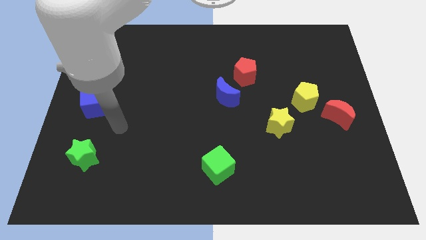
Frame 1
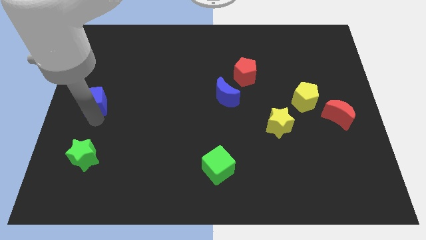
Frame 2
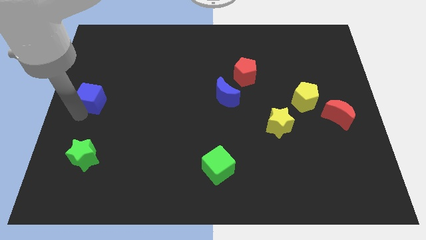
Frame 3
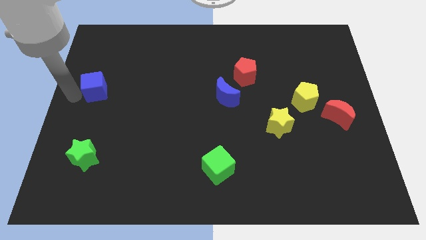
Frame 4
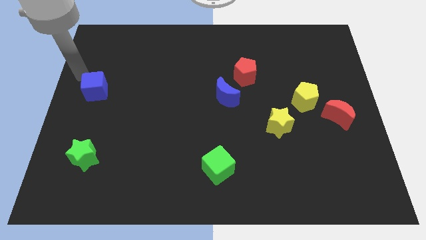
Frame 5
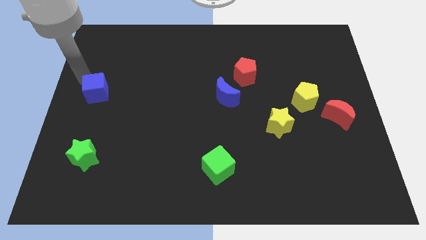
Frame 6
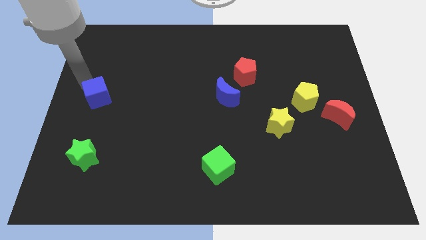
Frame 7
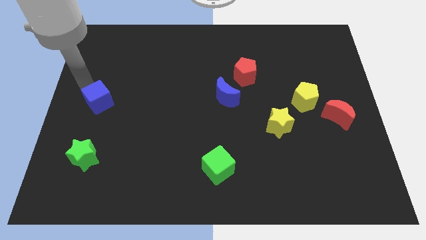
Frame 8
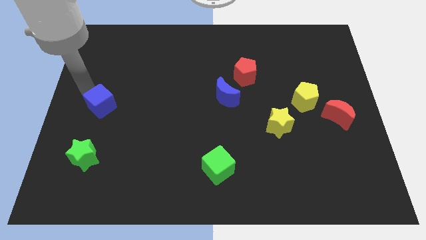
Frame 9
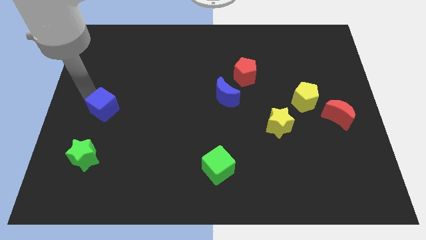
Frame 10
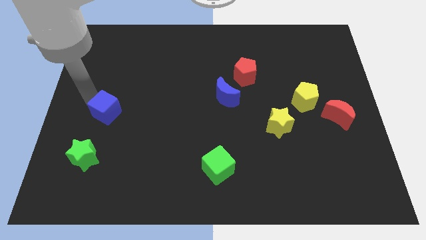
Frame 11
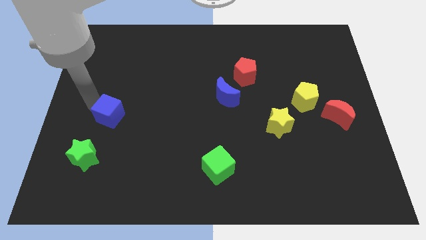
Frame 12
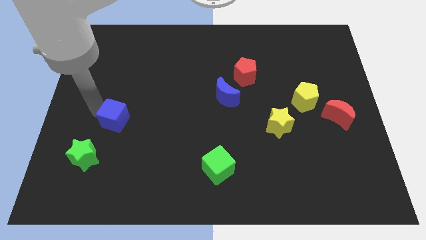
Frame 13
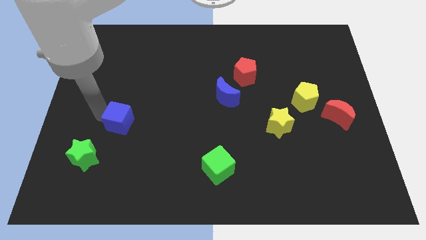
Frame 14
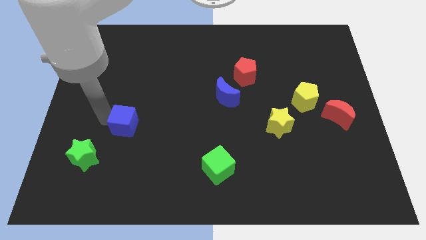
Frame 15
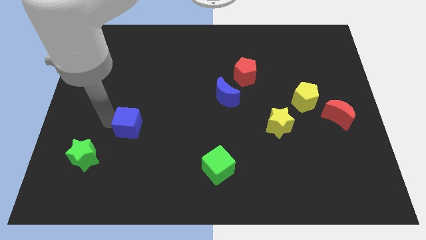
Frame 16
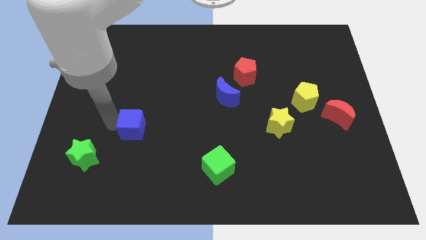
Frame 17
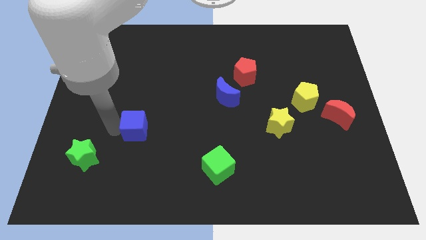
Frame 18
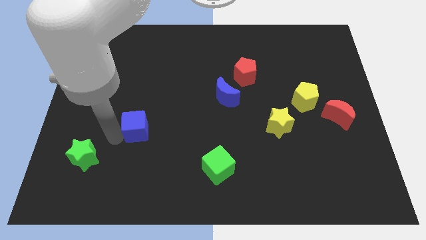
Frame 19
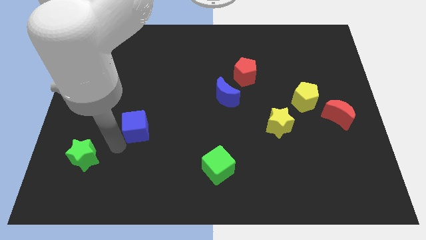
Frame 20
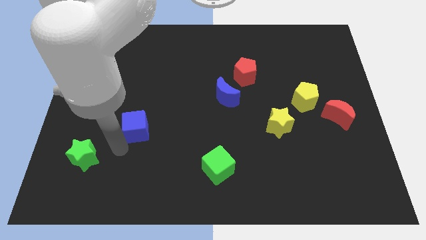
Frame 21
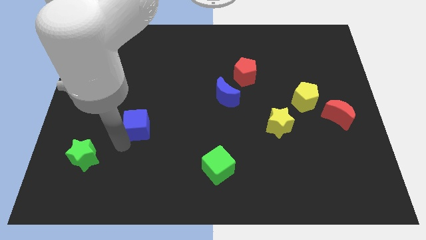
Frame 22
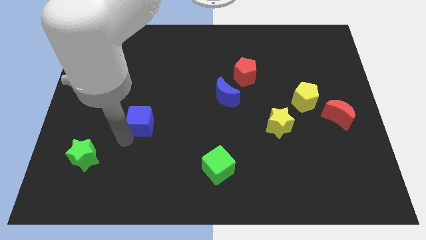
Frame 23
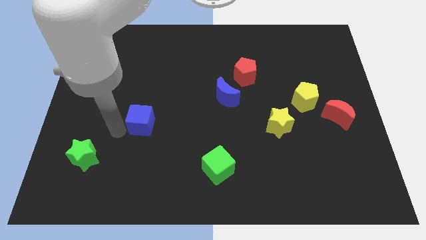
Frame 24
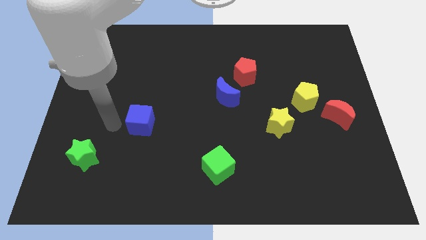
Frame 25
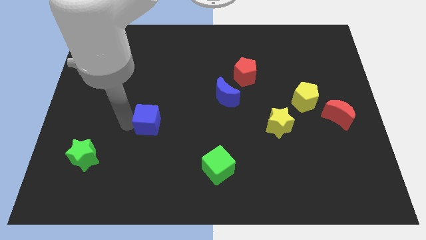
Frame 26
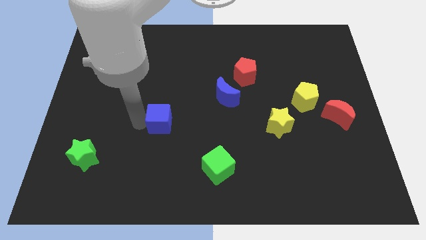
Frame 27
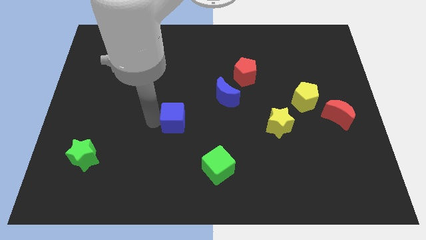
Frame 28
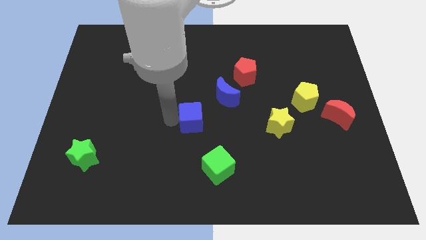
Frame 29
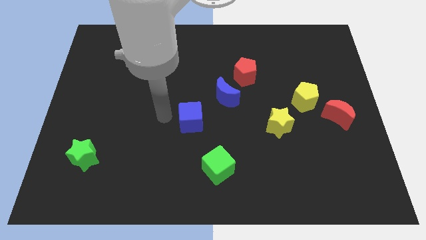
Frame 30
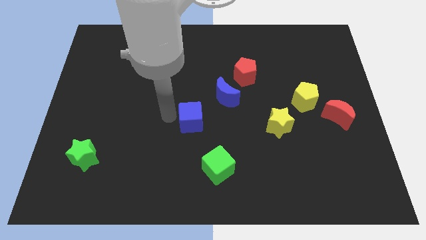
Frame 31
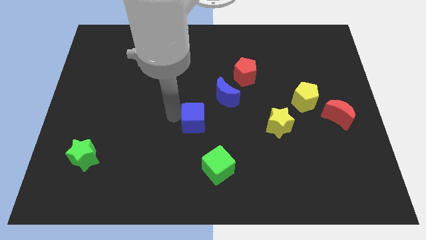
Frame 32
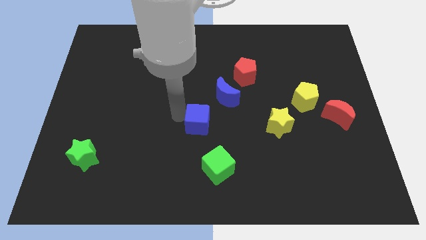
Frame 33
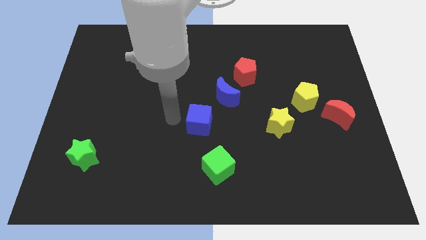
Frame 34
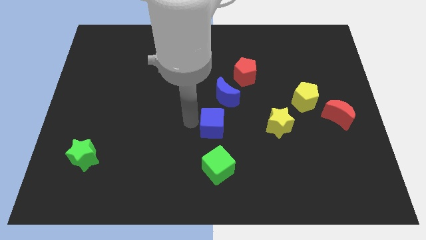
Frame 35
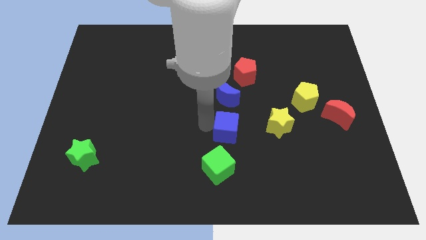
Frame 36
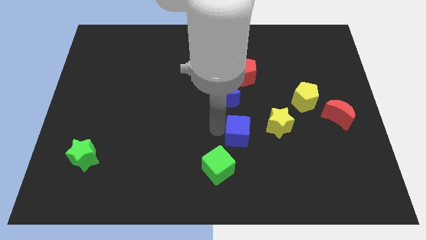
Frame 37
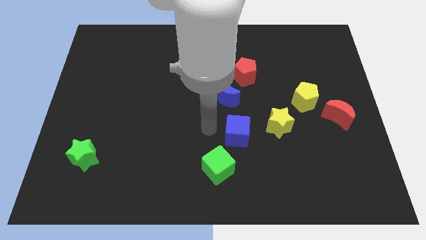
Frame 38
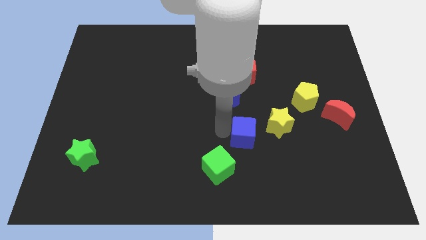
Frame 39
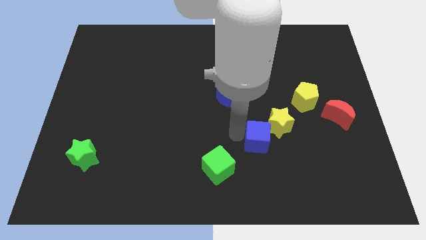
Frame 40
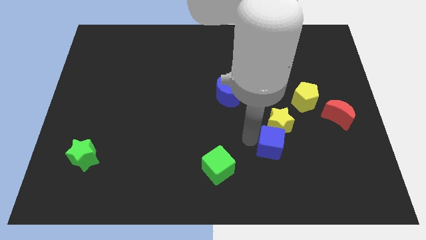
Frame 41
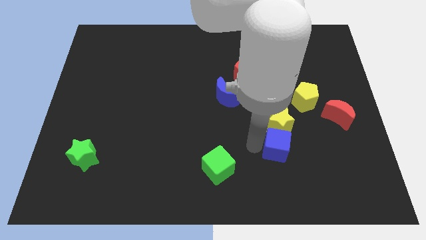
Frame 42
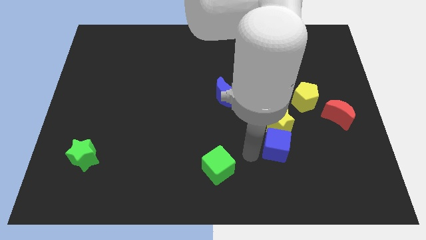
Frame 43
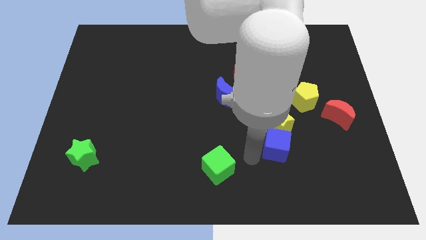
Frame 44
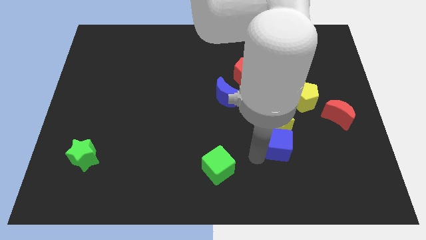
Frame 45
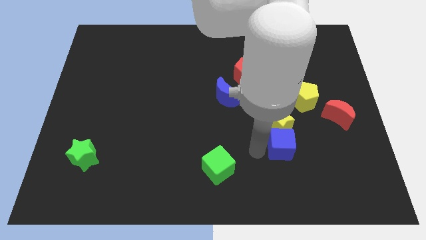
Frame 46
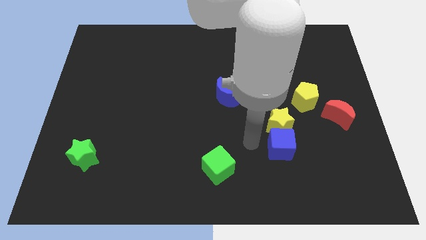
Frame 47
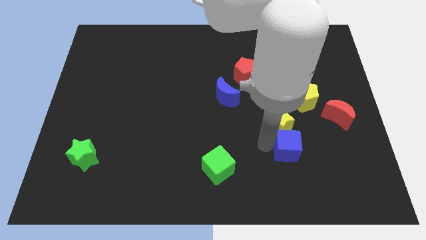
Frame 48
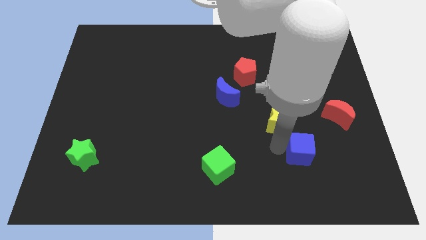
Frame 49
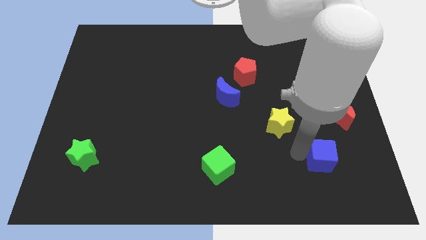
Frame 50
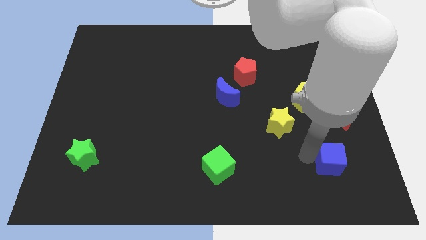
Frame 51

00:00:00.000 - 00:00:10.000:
push the blue cube to the bottom of the red moon

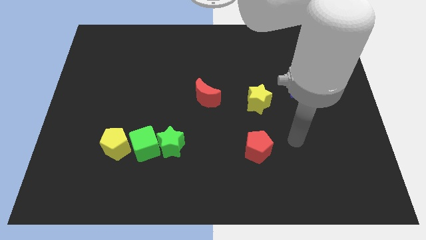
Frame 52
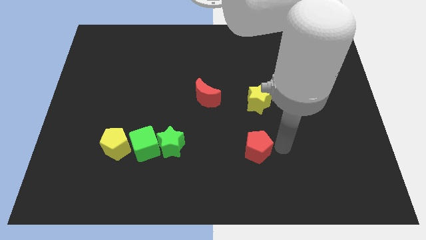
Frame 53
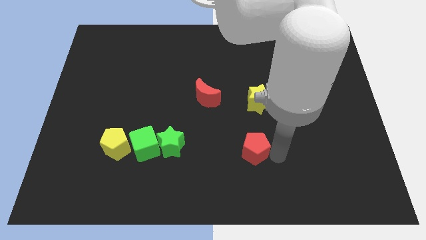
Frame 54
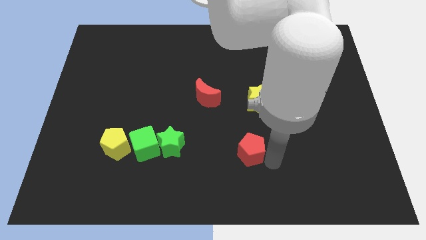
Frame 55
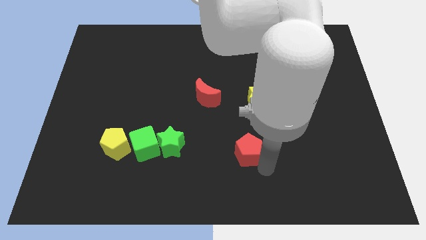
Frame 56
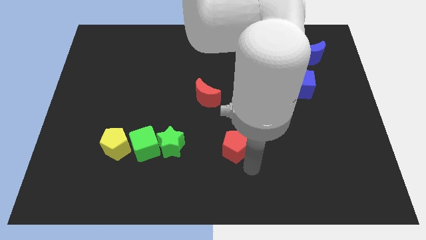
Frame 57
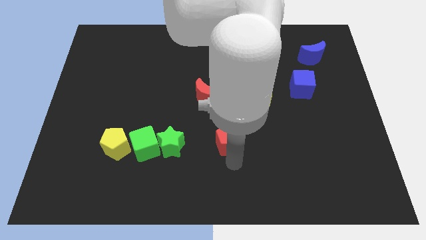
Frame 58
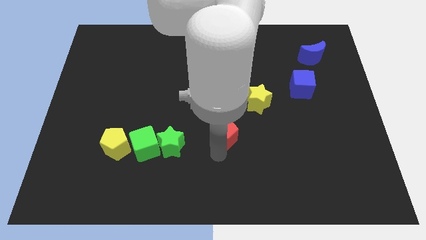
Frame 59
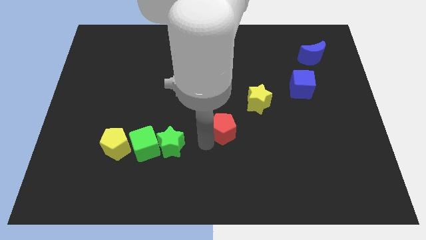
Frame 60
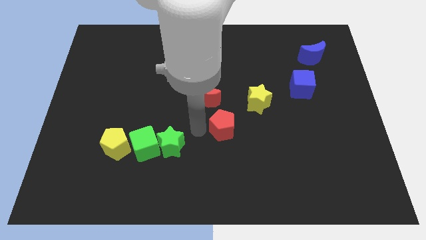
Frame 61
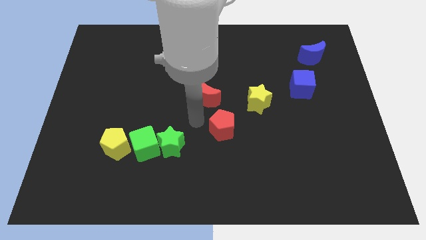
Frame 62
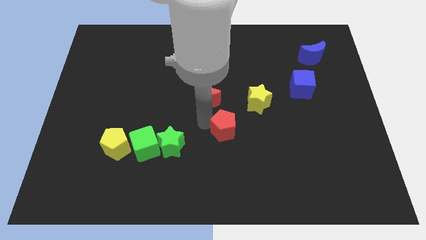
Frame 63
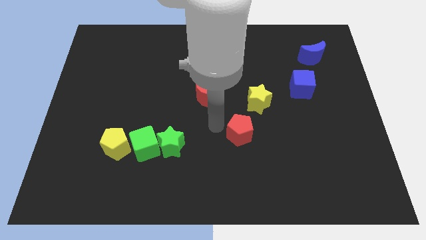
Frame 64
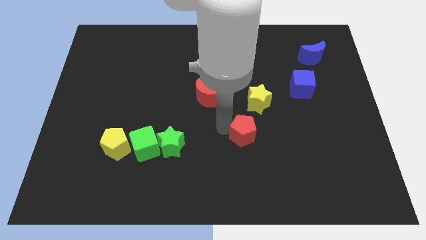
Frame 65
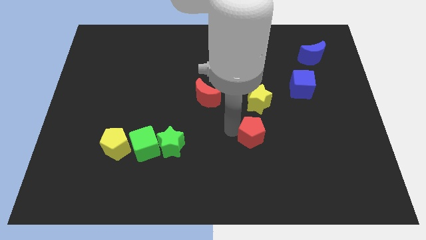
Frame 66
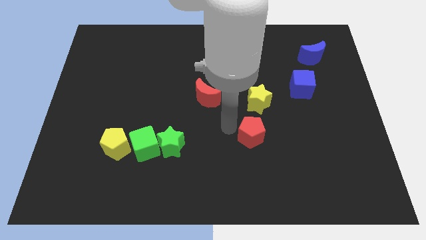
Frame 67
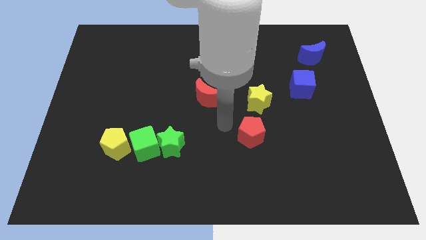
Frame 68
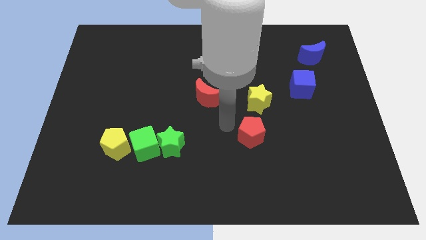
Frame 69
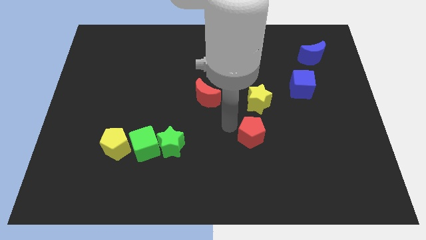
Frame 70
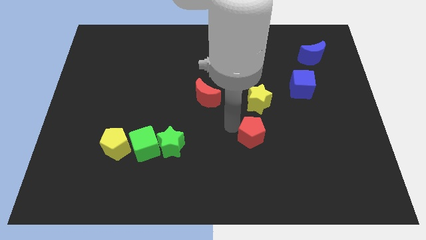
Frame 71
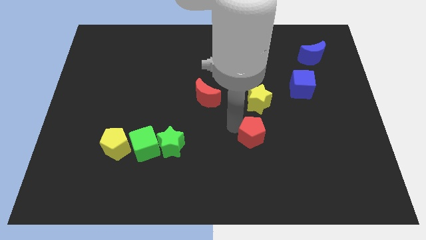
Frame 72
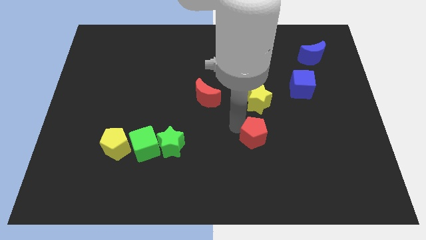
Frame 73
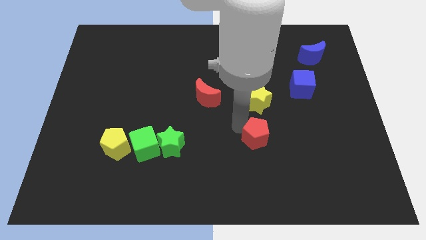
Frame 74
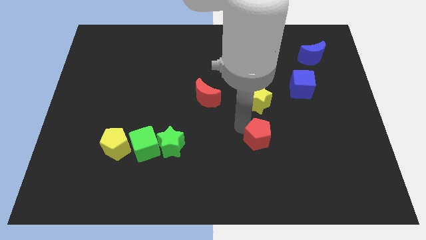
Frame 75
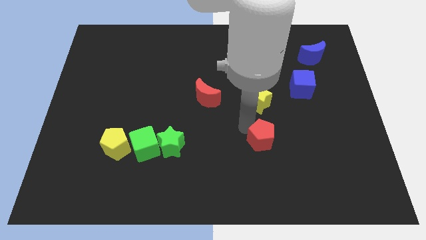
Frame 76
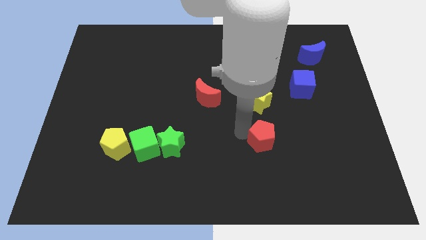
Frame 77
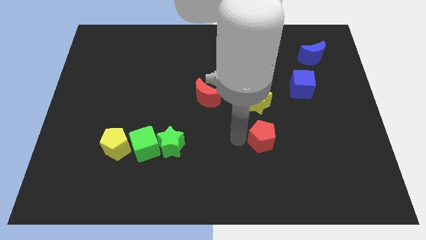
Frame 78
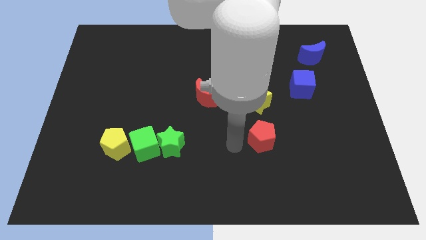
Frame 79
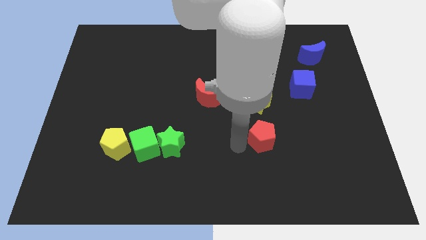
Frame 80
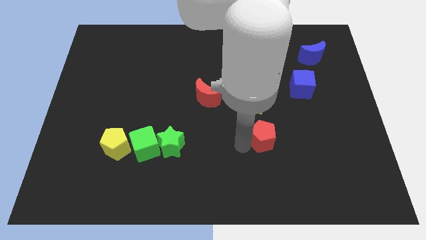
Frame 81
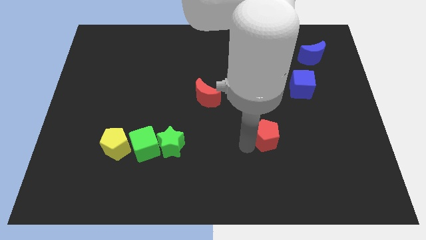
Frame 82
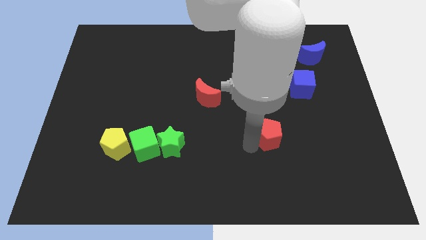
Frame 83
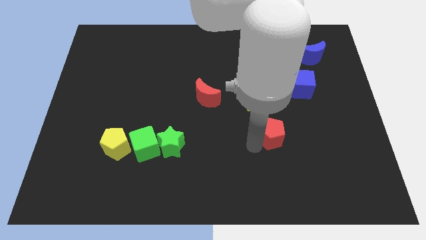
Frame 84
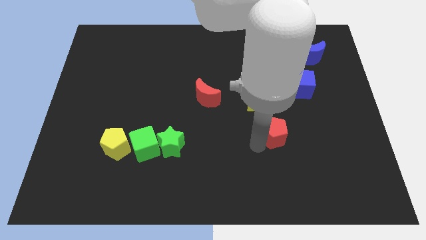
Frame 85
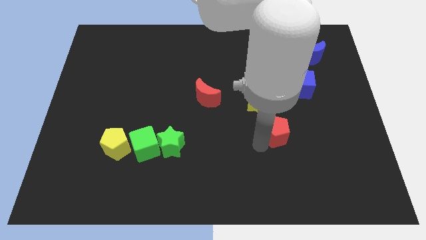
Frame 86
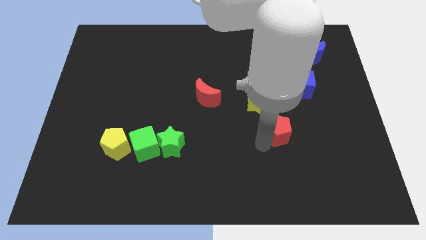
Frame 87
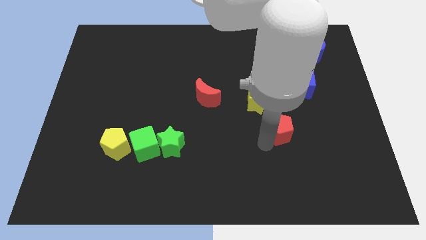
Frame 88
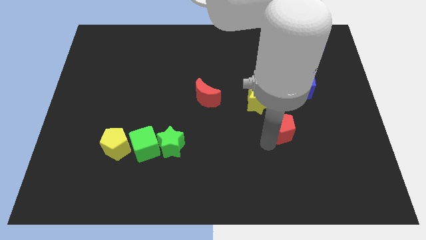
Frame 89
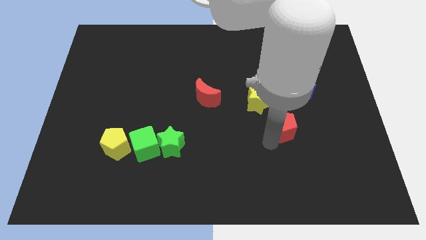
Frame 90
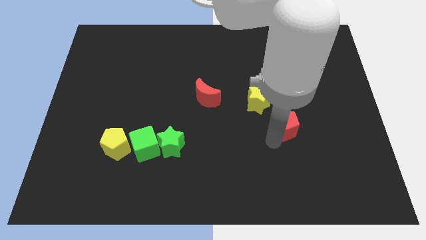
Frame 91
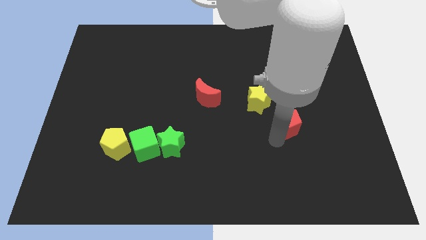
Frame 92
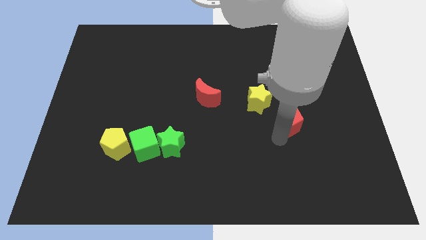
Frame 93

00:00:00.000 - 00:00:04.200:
move the red pentagon to the bottom of the blue cube
